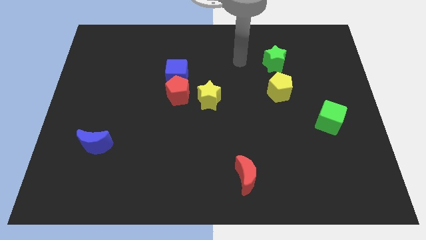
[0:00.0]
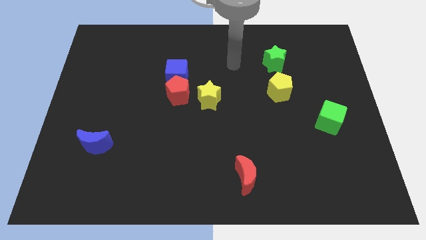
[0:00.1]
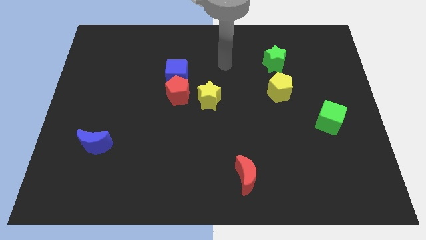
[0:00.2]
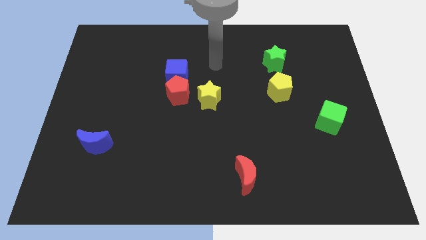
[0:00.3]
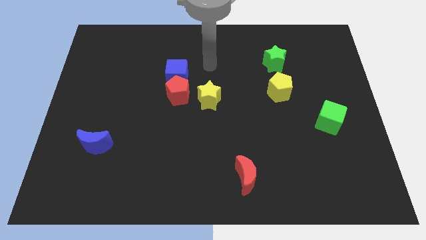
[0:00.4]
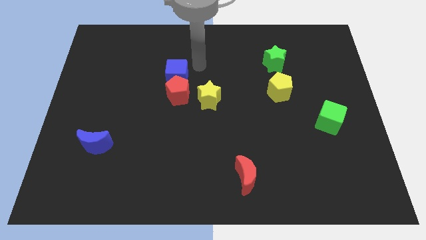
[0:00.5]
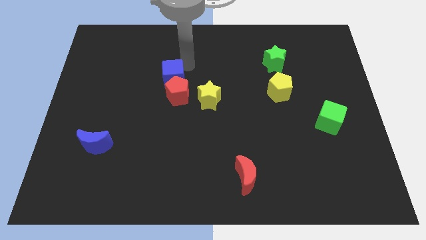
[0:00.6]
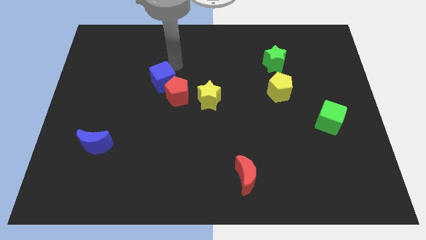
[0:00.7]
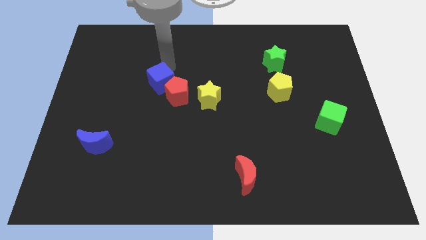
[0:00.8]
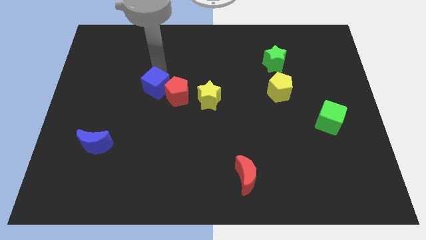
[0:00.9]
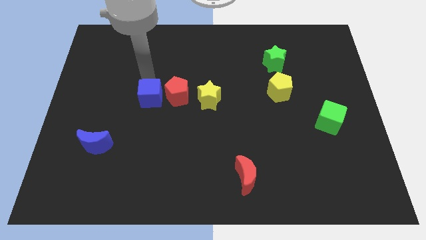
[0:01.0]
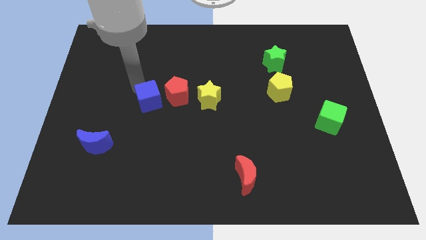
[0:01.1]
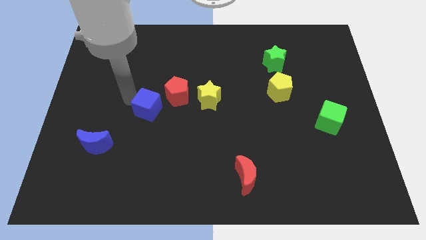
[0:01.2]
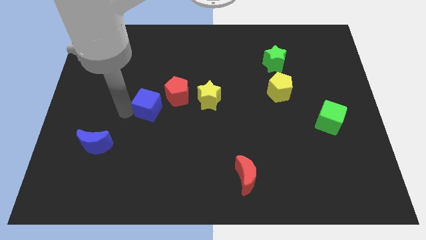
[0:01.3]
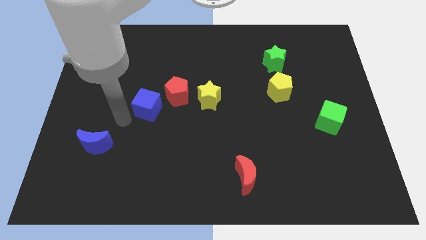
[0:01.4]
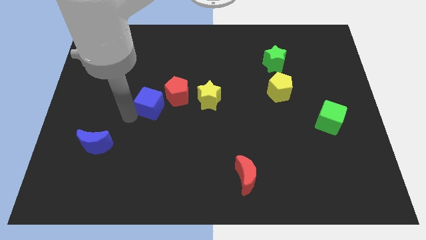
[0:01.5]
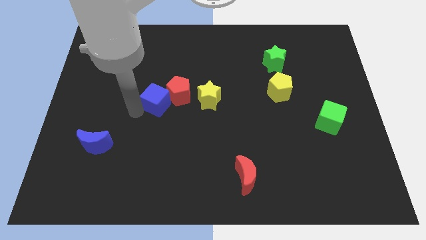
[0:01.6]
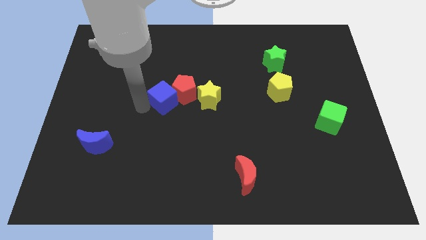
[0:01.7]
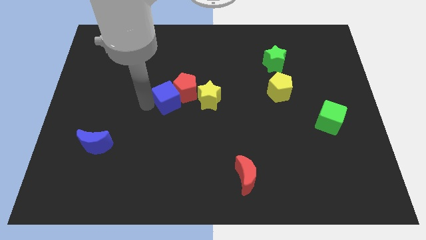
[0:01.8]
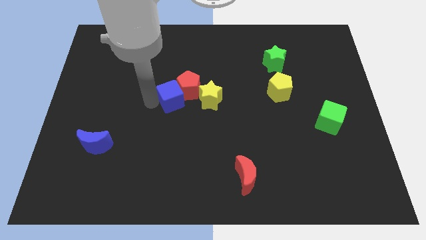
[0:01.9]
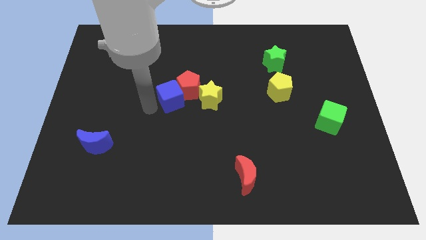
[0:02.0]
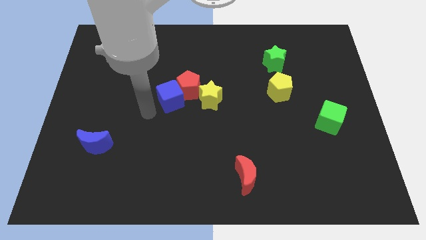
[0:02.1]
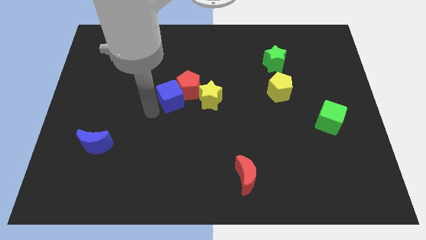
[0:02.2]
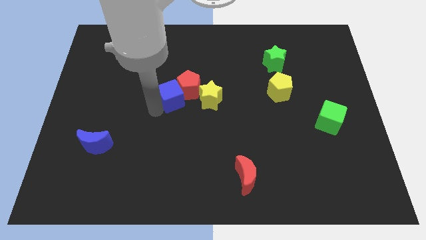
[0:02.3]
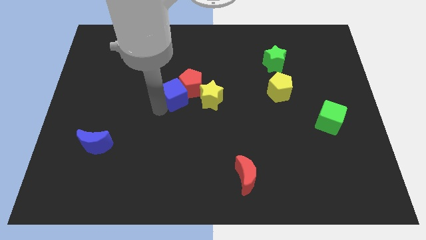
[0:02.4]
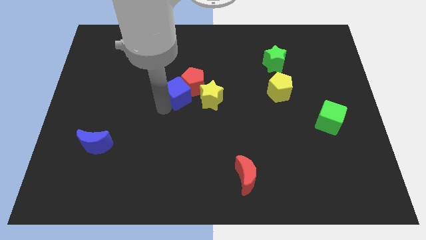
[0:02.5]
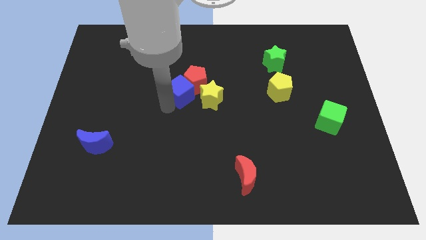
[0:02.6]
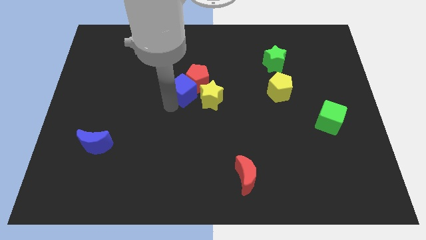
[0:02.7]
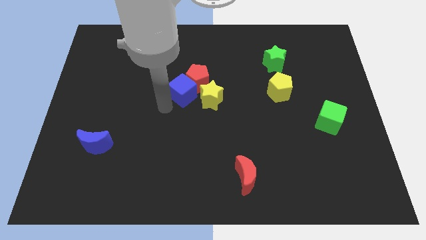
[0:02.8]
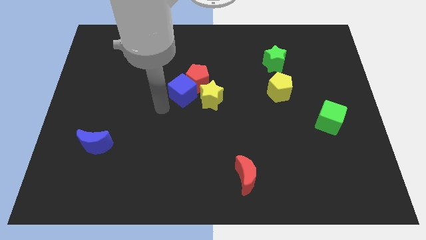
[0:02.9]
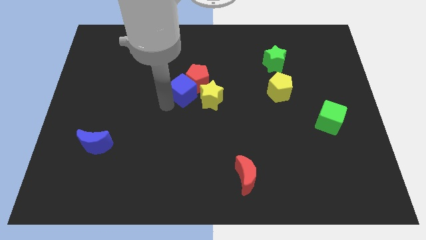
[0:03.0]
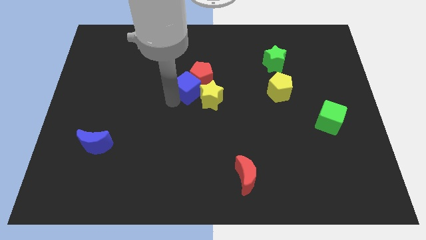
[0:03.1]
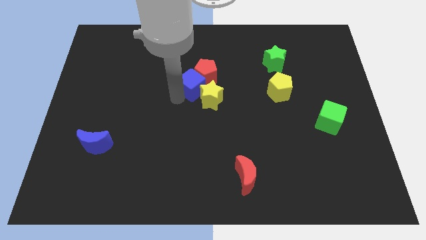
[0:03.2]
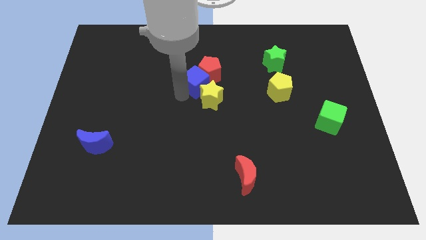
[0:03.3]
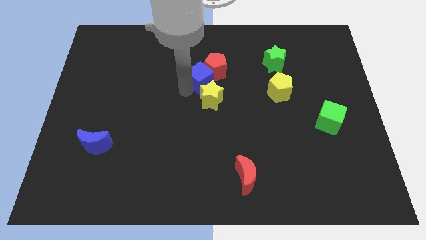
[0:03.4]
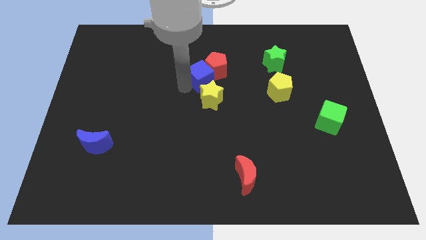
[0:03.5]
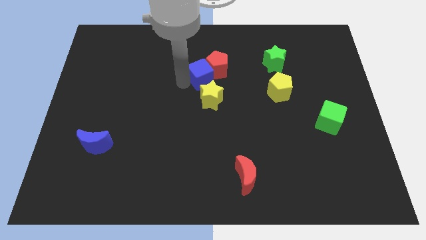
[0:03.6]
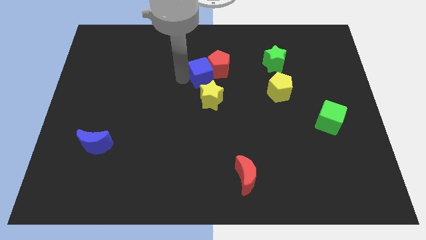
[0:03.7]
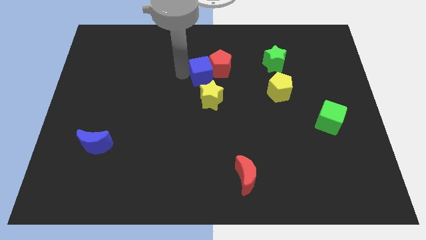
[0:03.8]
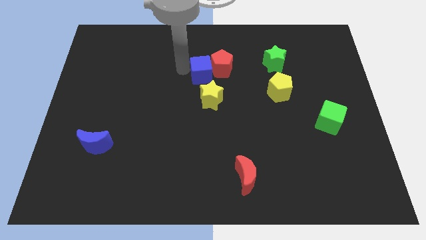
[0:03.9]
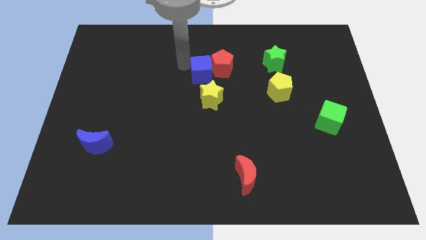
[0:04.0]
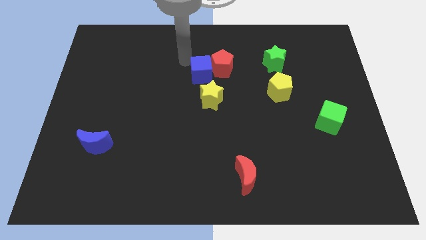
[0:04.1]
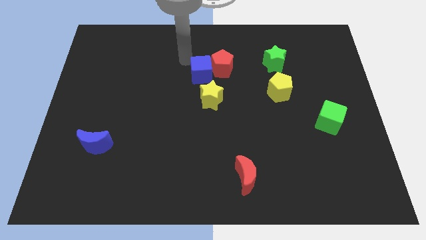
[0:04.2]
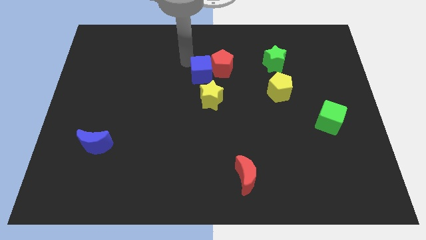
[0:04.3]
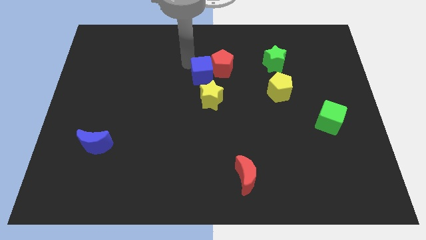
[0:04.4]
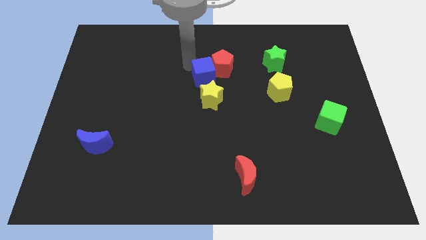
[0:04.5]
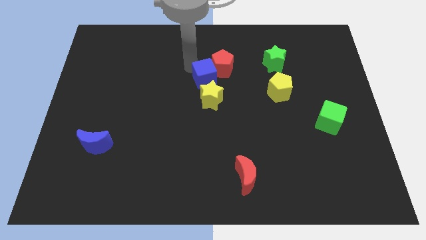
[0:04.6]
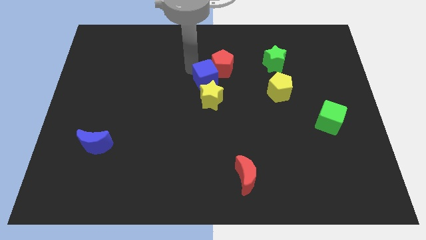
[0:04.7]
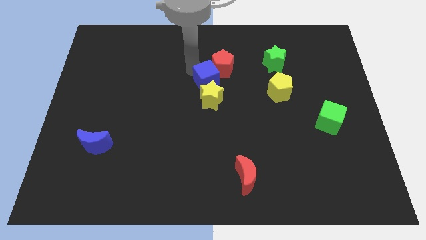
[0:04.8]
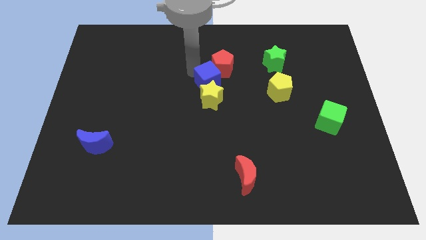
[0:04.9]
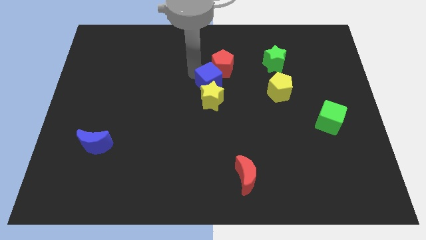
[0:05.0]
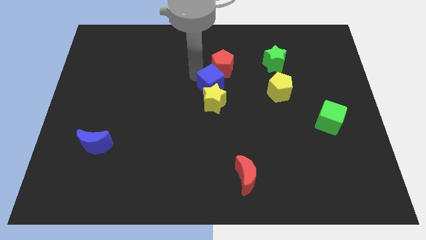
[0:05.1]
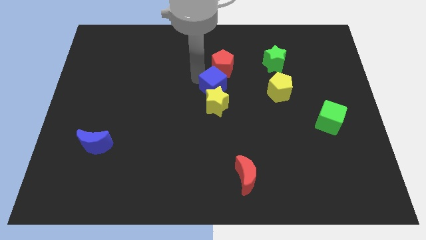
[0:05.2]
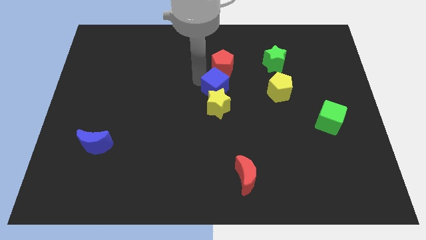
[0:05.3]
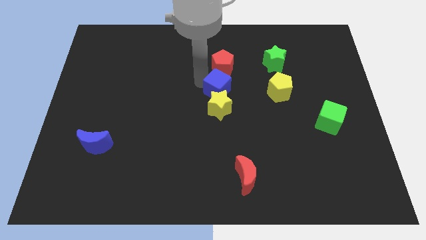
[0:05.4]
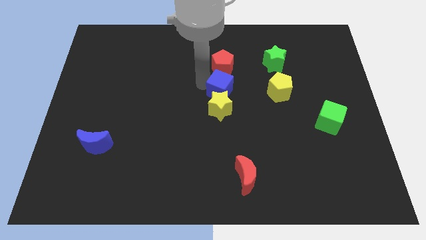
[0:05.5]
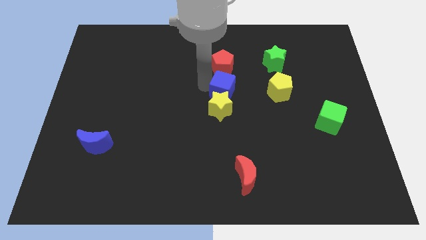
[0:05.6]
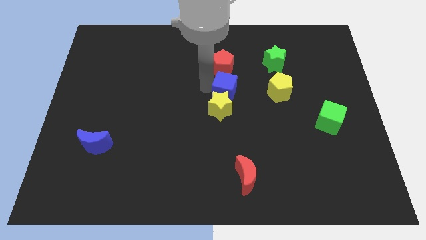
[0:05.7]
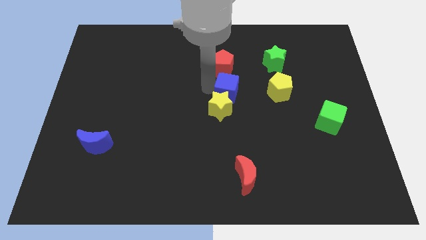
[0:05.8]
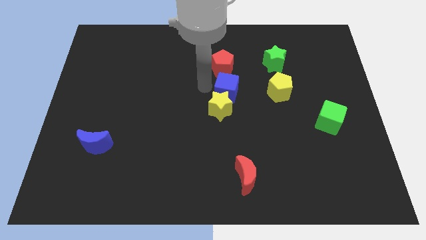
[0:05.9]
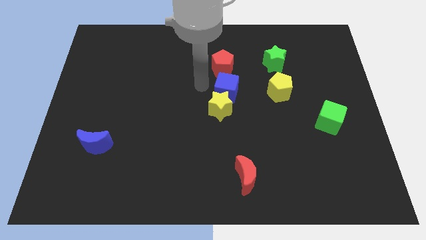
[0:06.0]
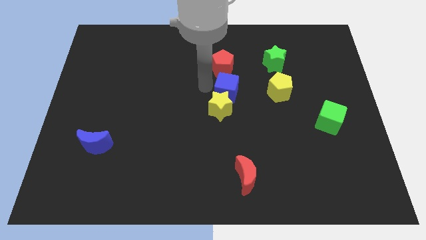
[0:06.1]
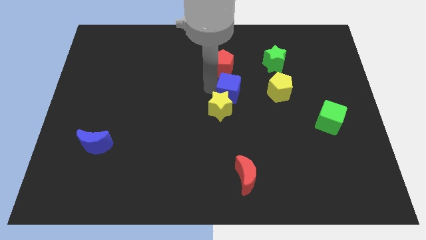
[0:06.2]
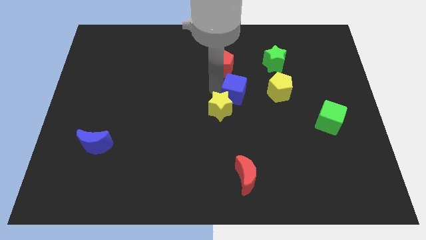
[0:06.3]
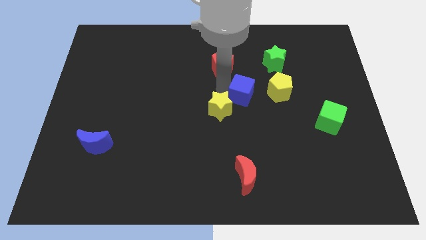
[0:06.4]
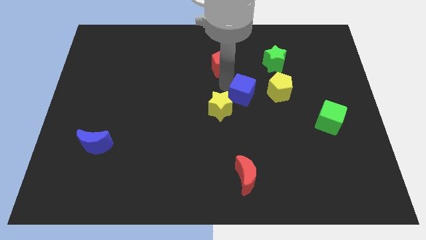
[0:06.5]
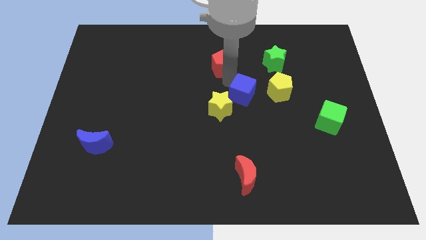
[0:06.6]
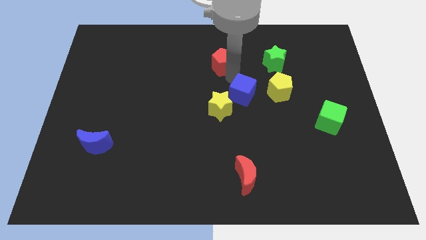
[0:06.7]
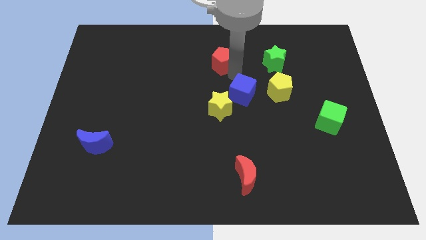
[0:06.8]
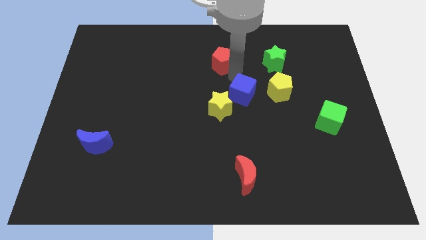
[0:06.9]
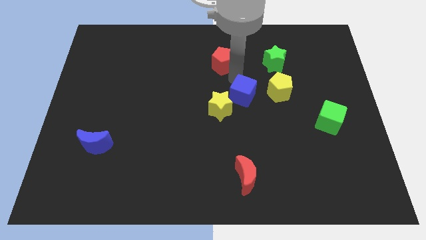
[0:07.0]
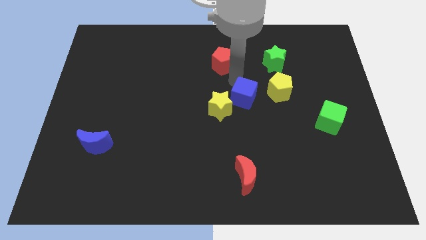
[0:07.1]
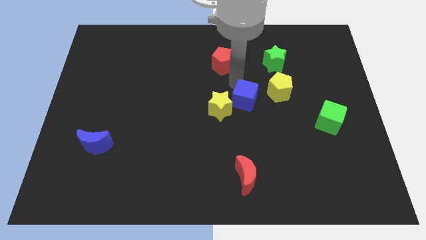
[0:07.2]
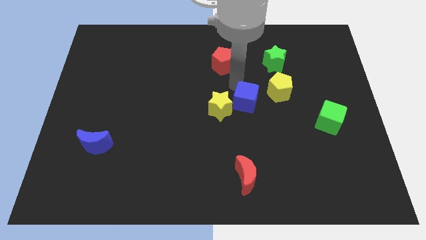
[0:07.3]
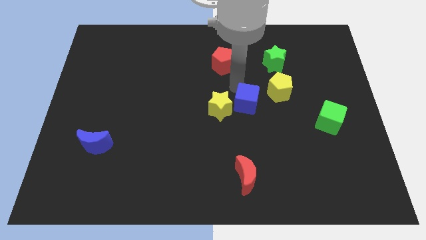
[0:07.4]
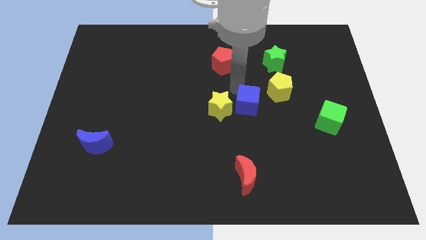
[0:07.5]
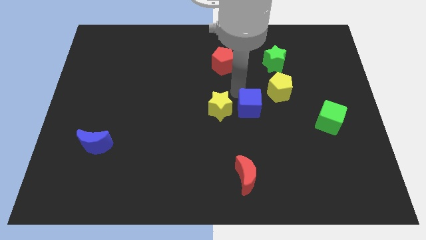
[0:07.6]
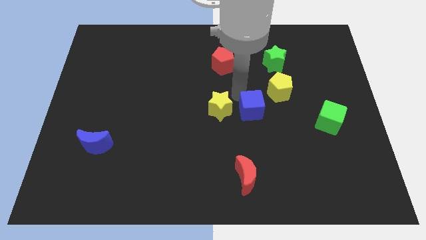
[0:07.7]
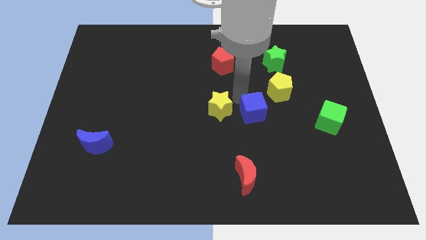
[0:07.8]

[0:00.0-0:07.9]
slide the blue cube diagonally downwards and right

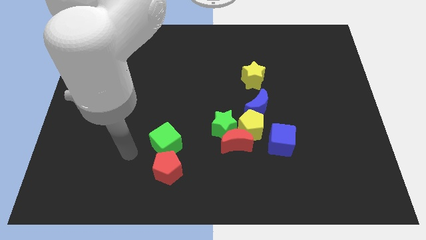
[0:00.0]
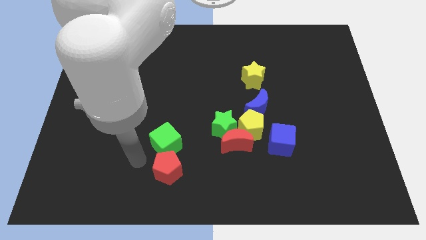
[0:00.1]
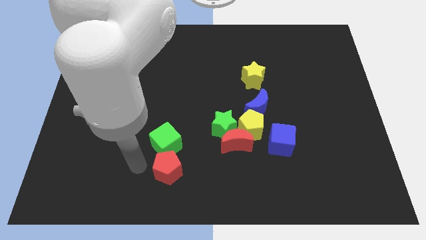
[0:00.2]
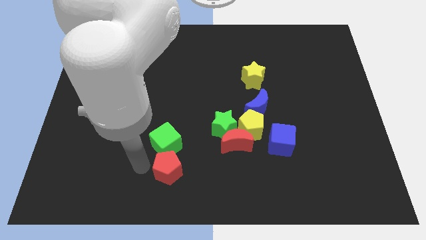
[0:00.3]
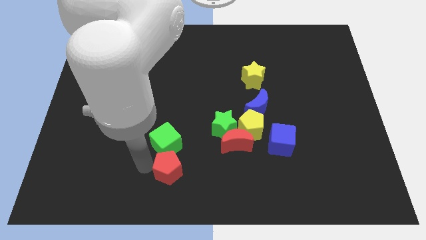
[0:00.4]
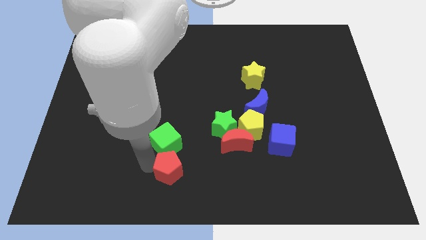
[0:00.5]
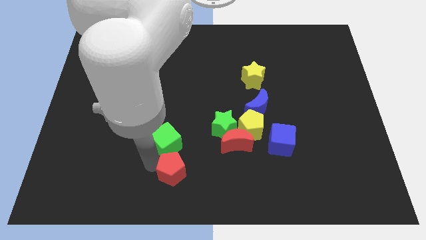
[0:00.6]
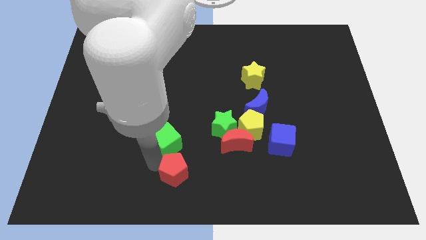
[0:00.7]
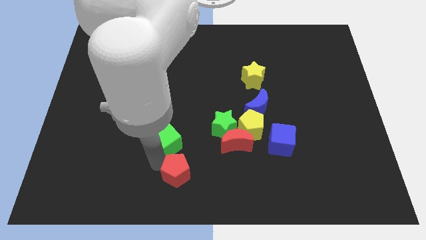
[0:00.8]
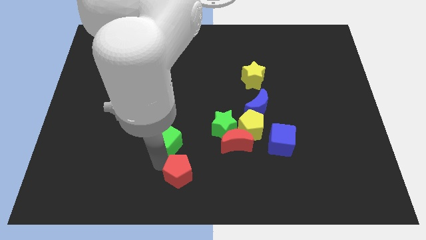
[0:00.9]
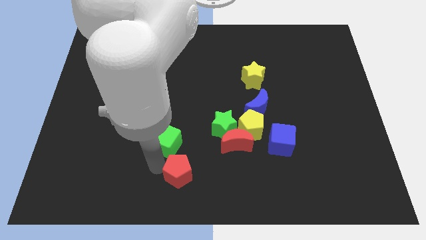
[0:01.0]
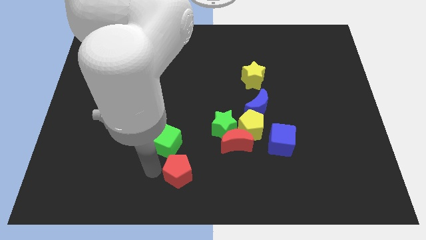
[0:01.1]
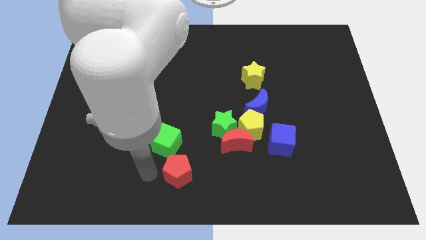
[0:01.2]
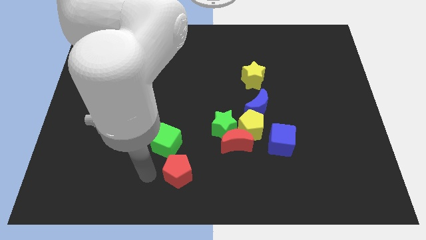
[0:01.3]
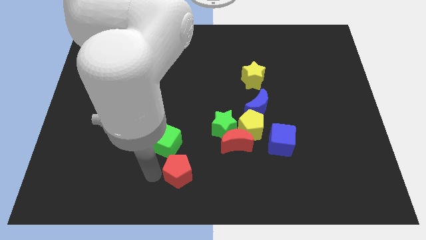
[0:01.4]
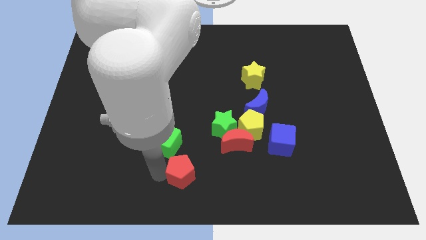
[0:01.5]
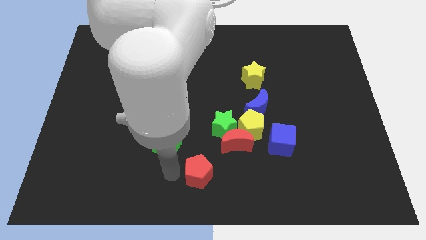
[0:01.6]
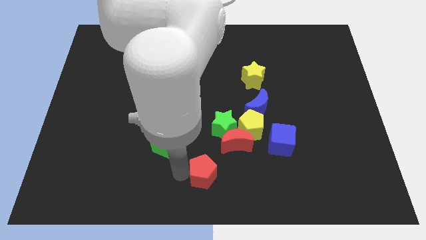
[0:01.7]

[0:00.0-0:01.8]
slightly slide the red pentagon right
